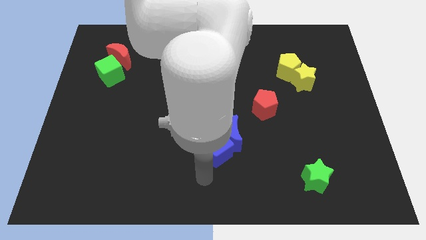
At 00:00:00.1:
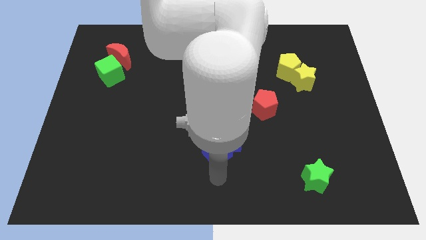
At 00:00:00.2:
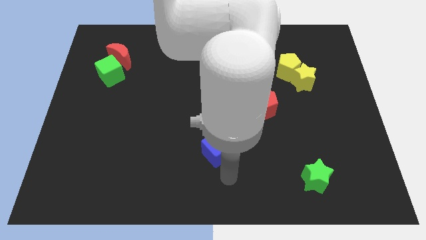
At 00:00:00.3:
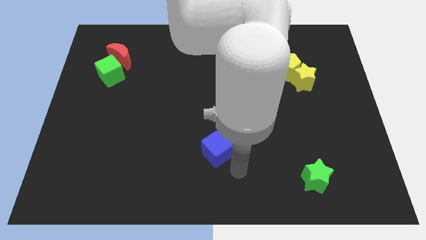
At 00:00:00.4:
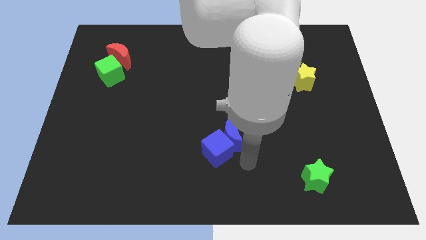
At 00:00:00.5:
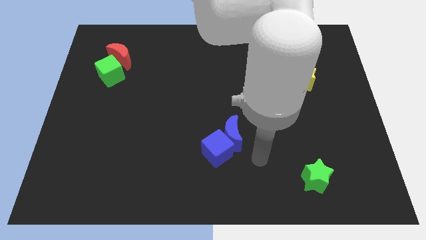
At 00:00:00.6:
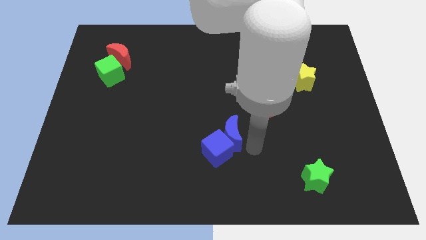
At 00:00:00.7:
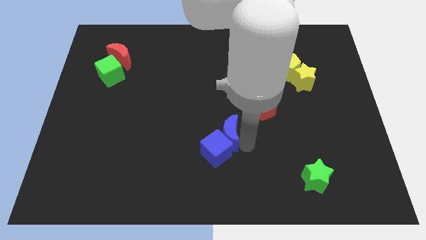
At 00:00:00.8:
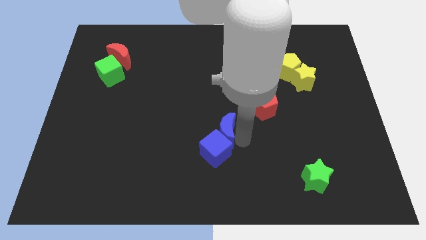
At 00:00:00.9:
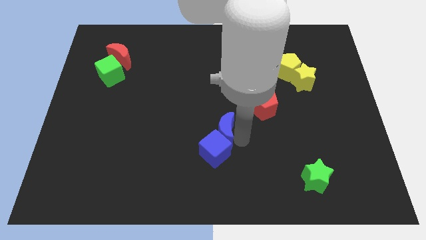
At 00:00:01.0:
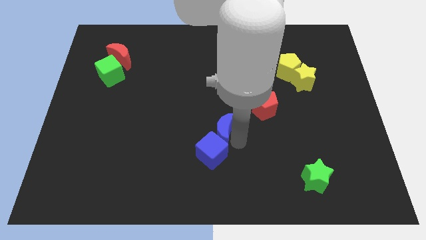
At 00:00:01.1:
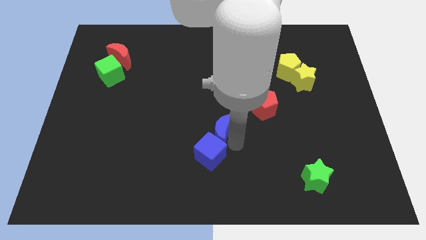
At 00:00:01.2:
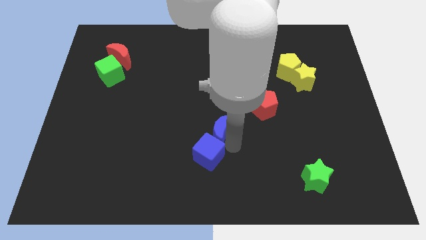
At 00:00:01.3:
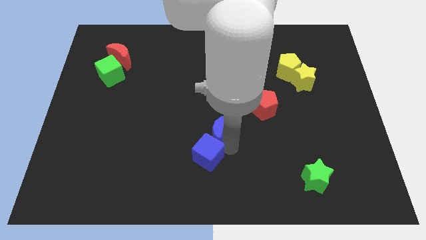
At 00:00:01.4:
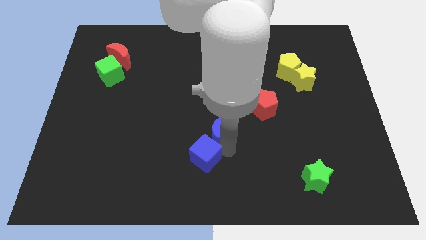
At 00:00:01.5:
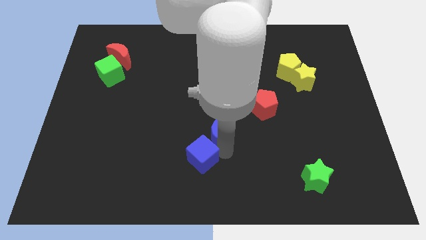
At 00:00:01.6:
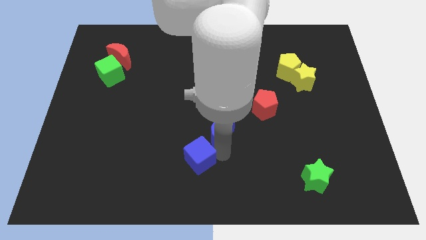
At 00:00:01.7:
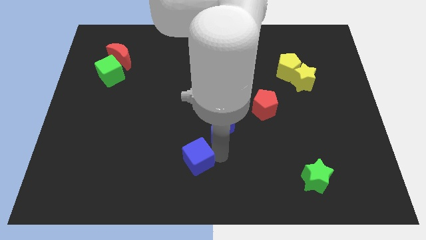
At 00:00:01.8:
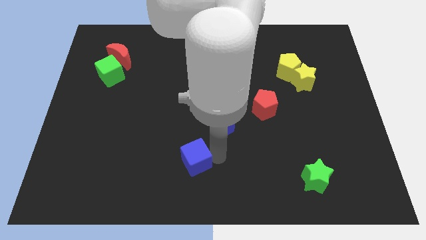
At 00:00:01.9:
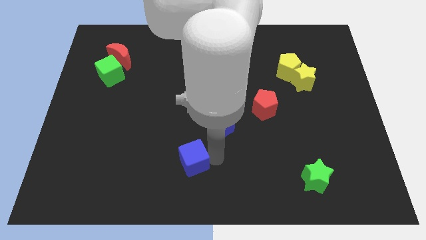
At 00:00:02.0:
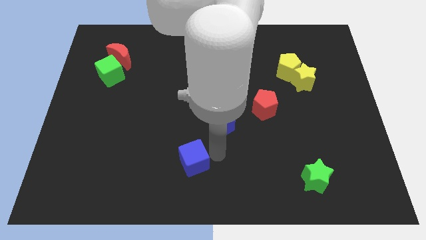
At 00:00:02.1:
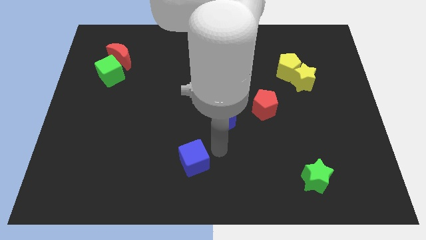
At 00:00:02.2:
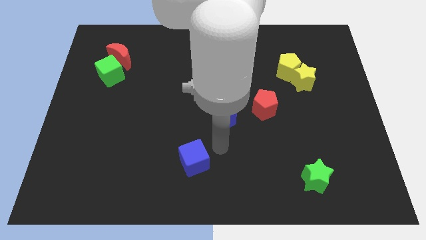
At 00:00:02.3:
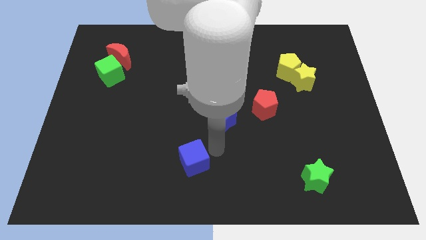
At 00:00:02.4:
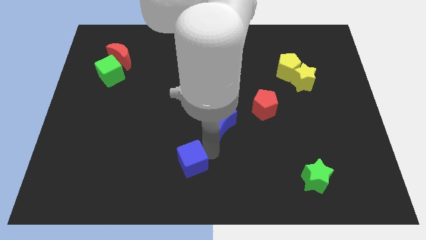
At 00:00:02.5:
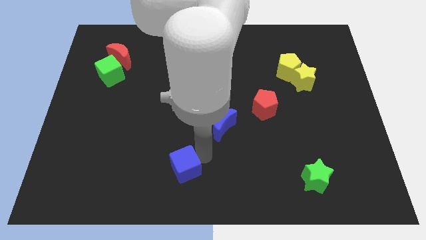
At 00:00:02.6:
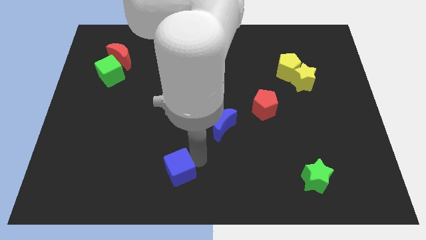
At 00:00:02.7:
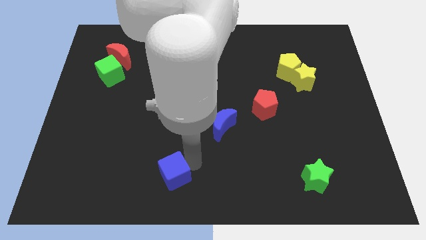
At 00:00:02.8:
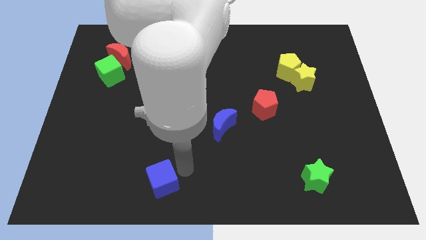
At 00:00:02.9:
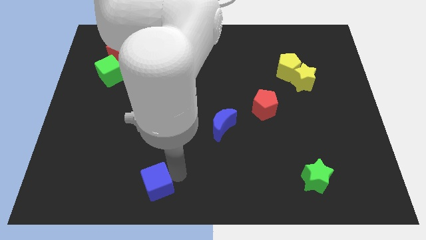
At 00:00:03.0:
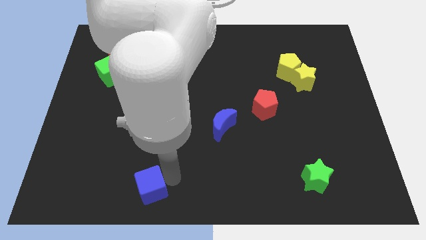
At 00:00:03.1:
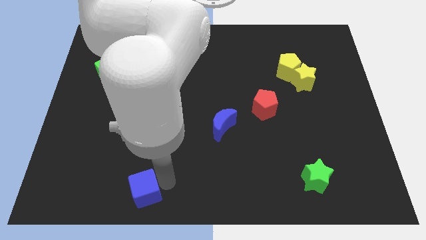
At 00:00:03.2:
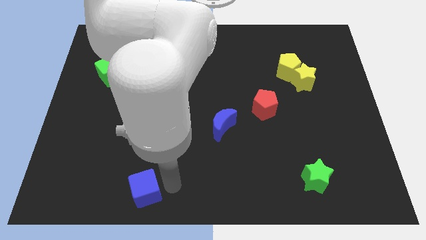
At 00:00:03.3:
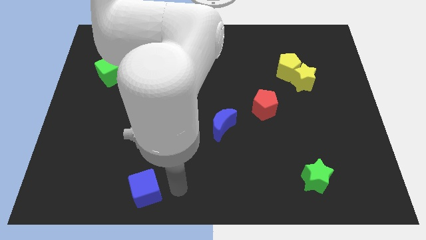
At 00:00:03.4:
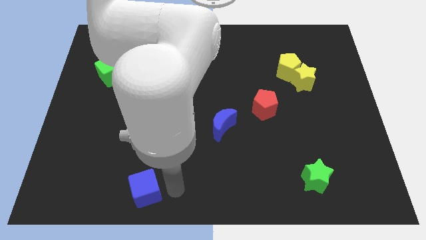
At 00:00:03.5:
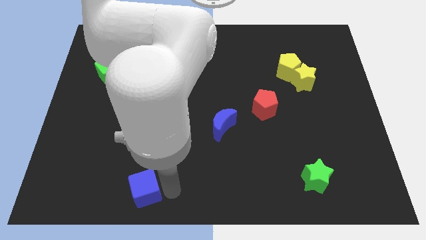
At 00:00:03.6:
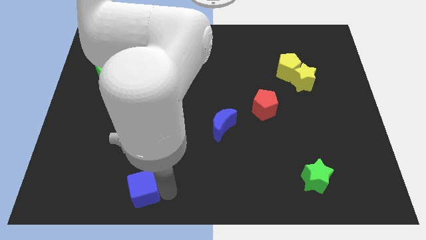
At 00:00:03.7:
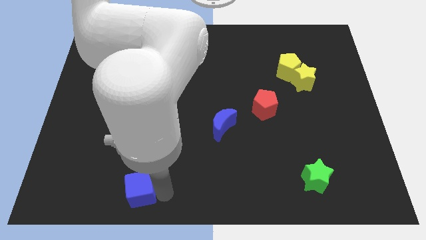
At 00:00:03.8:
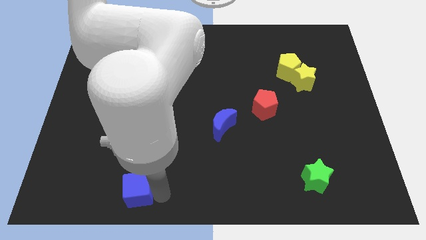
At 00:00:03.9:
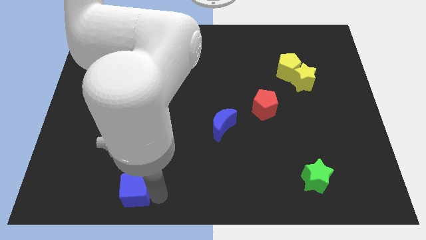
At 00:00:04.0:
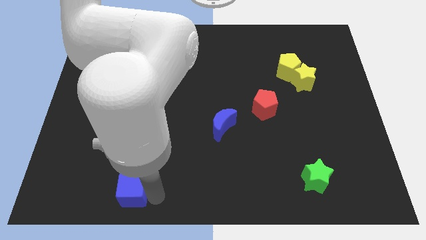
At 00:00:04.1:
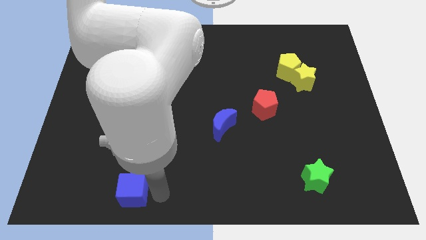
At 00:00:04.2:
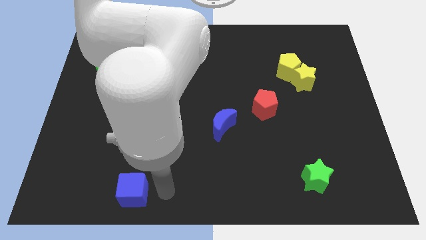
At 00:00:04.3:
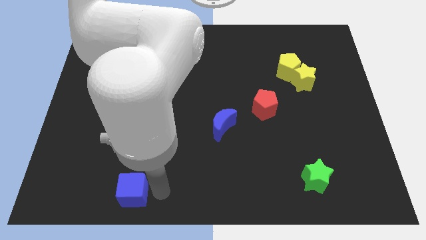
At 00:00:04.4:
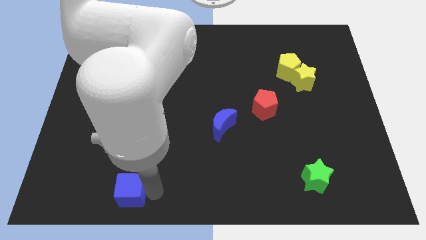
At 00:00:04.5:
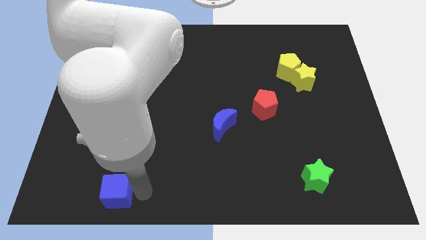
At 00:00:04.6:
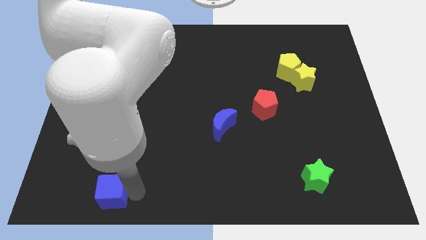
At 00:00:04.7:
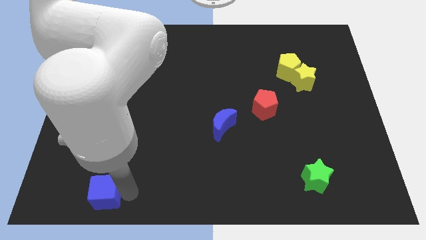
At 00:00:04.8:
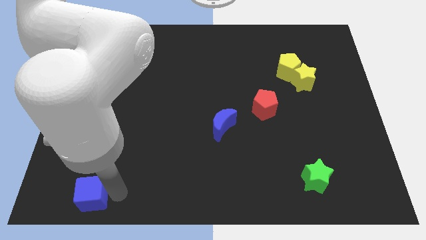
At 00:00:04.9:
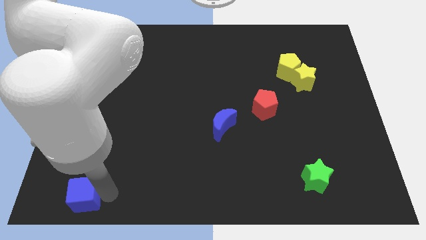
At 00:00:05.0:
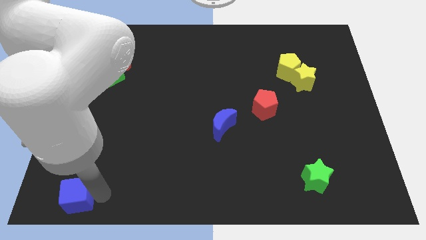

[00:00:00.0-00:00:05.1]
move the blue cube to the lower left corner
